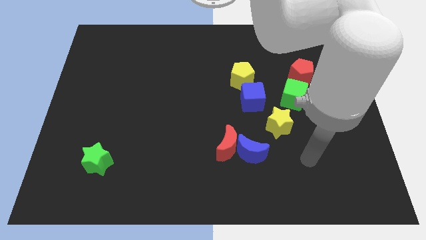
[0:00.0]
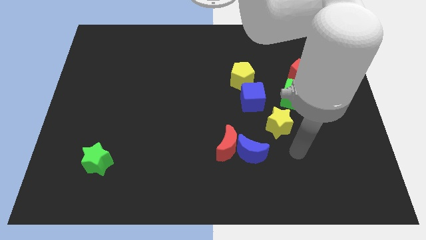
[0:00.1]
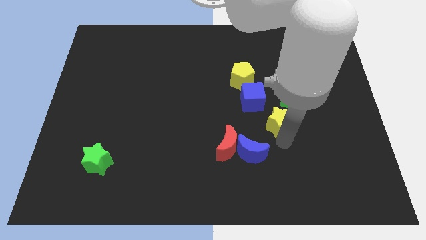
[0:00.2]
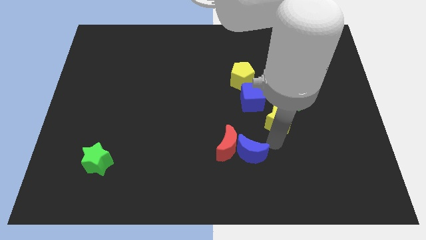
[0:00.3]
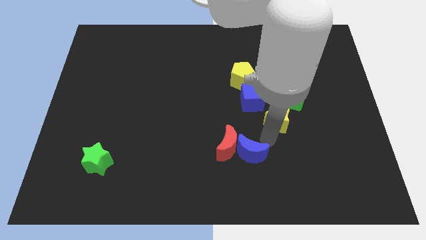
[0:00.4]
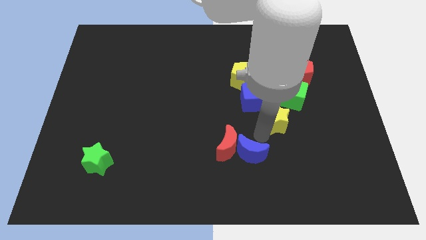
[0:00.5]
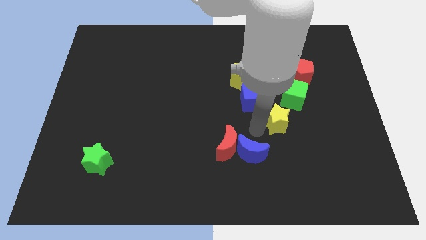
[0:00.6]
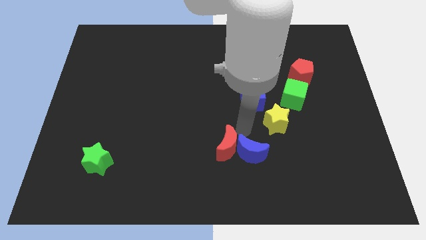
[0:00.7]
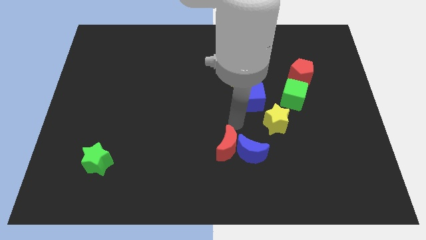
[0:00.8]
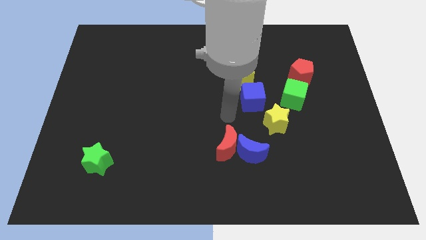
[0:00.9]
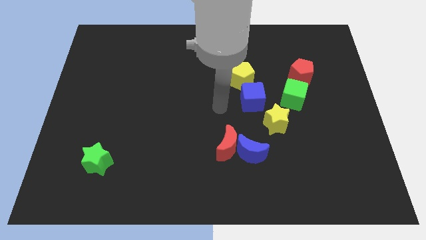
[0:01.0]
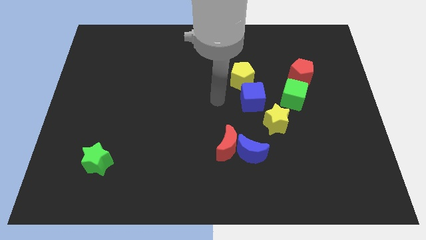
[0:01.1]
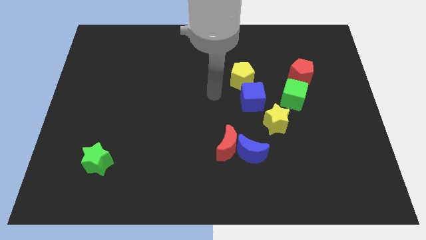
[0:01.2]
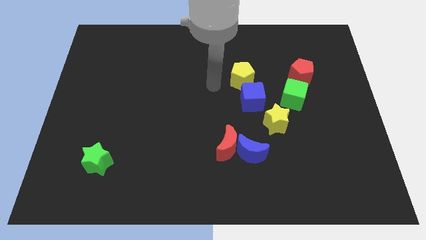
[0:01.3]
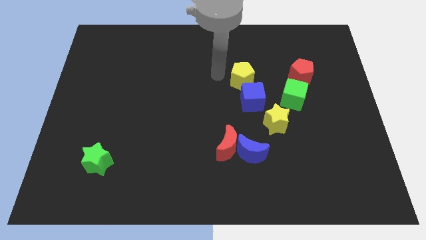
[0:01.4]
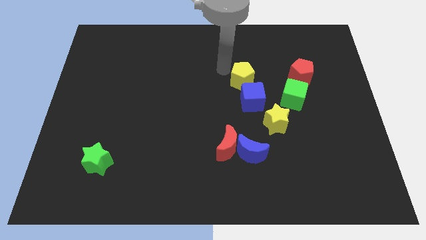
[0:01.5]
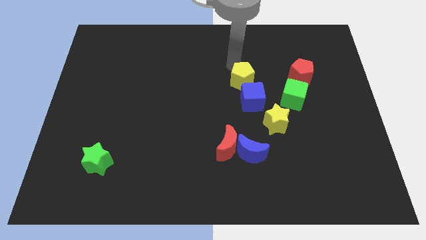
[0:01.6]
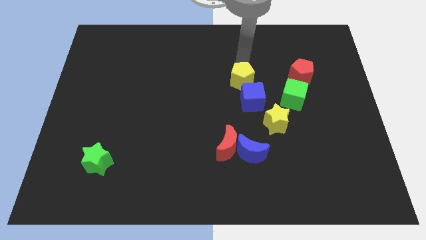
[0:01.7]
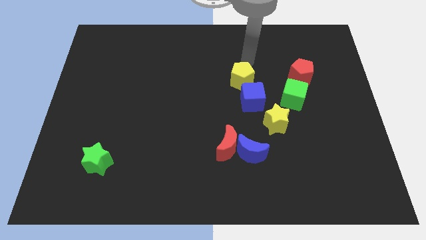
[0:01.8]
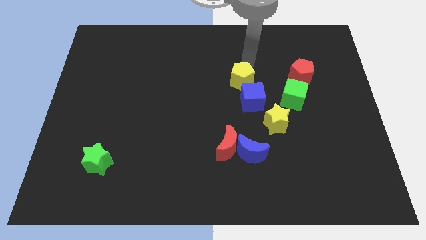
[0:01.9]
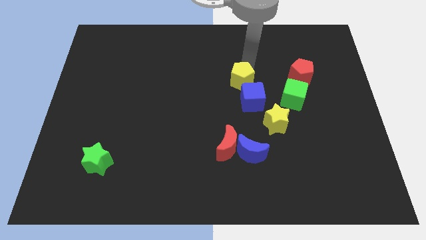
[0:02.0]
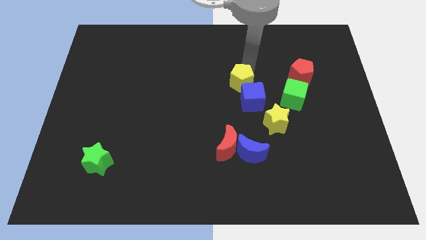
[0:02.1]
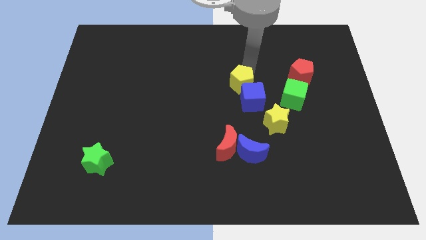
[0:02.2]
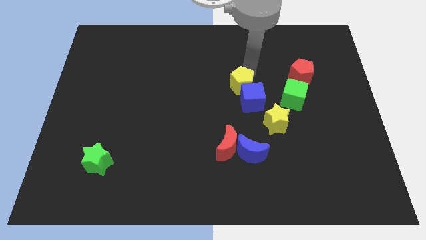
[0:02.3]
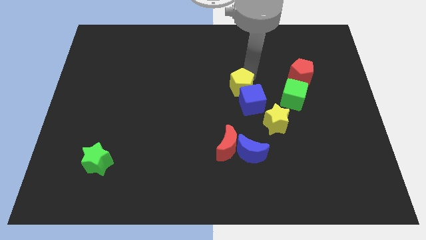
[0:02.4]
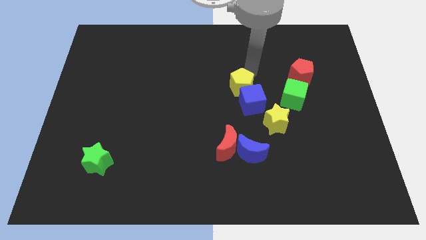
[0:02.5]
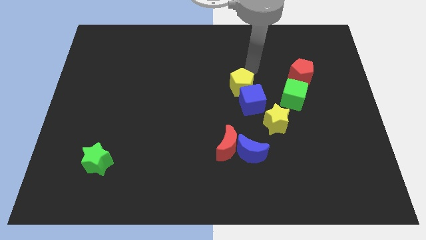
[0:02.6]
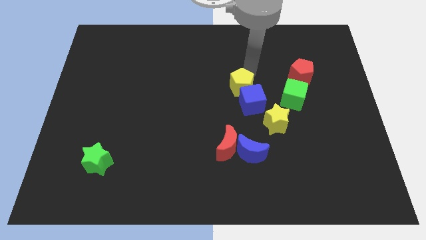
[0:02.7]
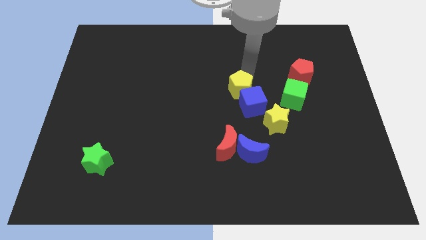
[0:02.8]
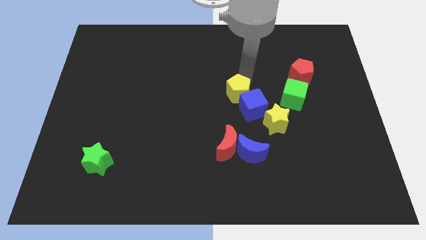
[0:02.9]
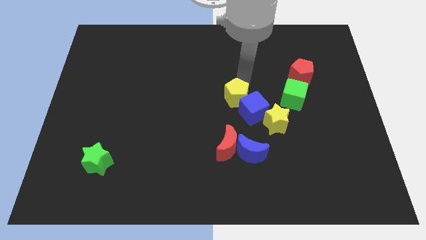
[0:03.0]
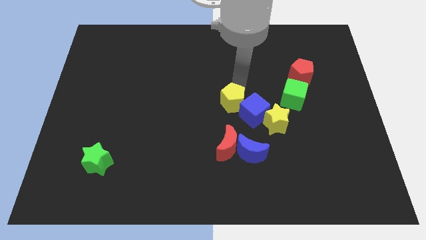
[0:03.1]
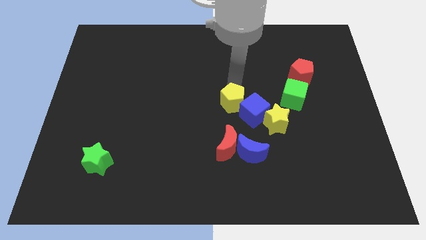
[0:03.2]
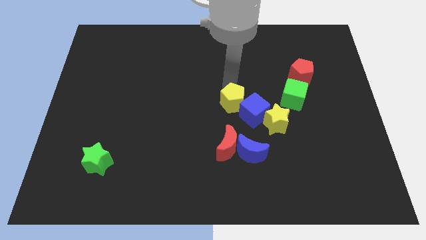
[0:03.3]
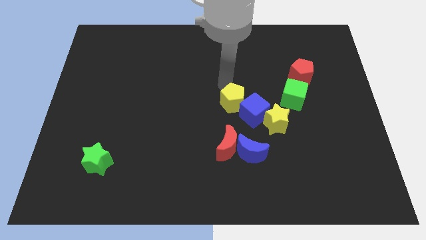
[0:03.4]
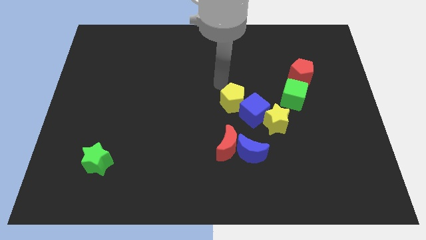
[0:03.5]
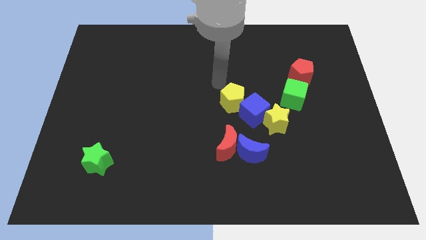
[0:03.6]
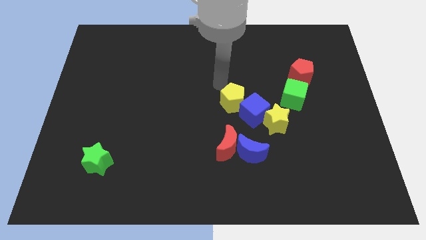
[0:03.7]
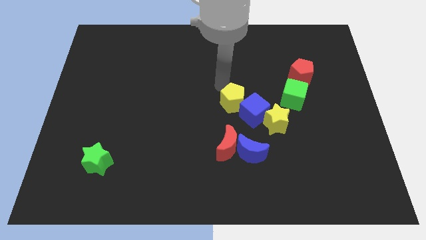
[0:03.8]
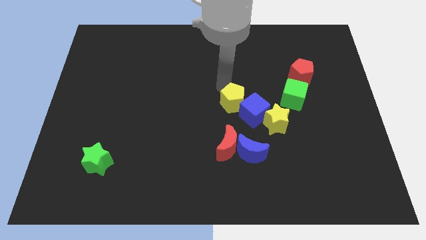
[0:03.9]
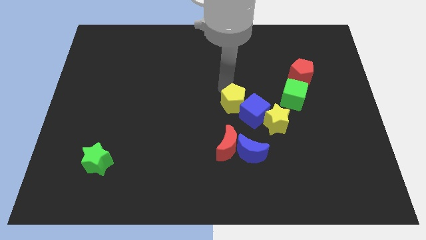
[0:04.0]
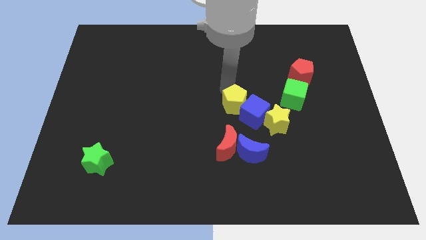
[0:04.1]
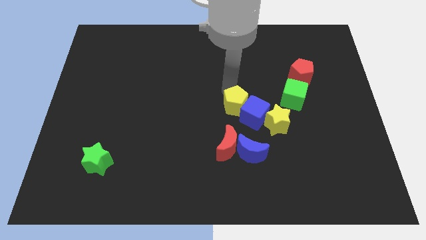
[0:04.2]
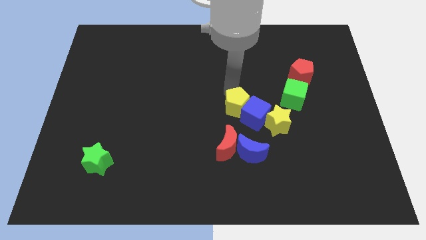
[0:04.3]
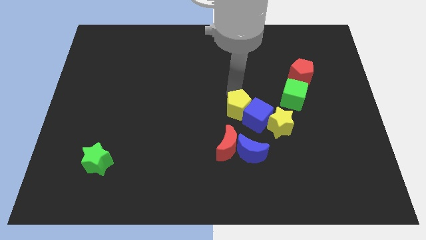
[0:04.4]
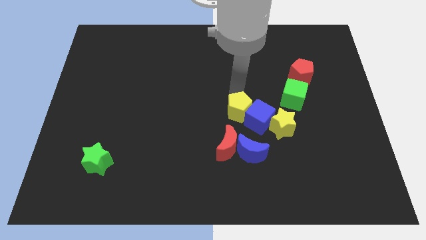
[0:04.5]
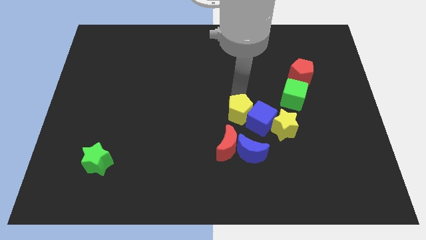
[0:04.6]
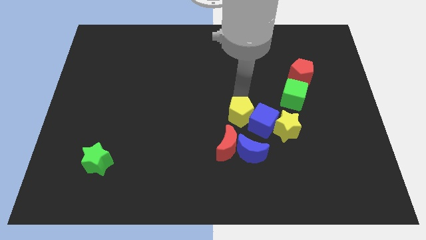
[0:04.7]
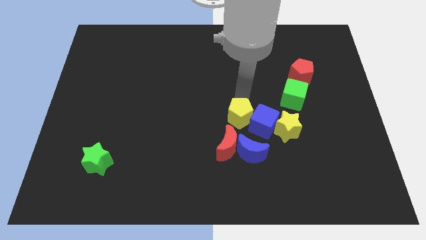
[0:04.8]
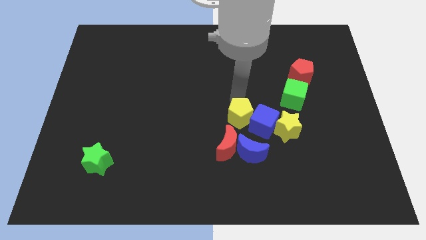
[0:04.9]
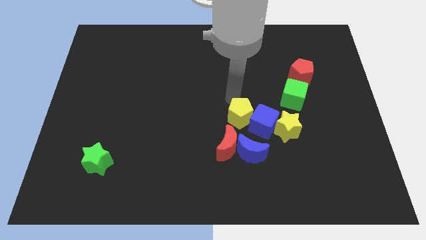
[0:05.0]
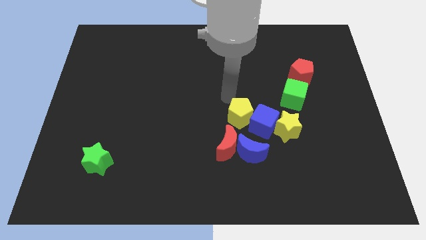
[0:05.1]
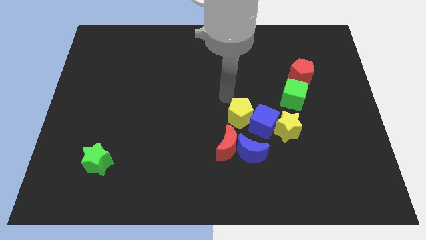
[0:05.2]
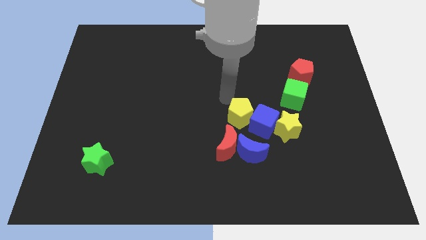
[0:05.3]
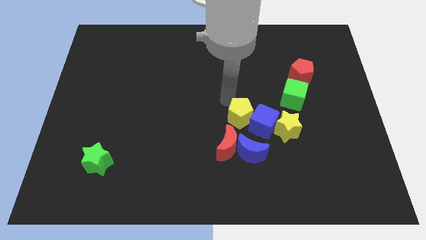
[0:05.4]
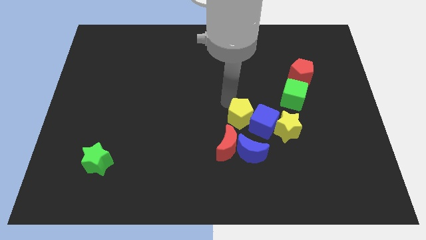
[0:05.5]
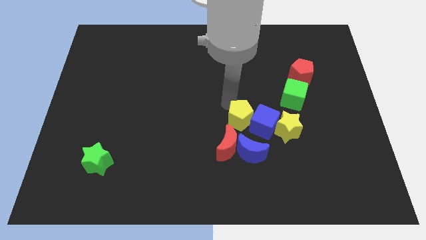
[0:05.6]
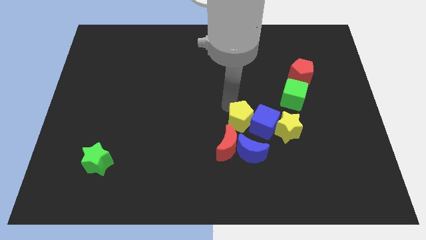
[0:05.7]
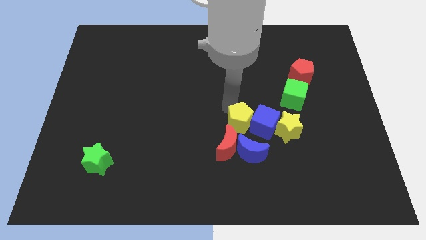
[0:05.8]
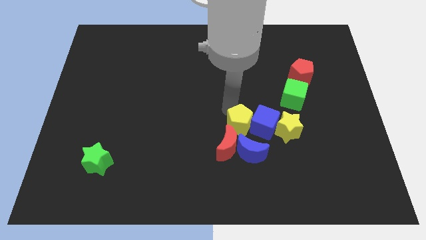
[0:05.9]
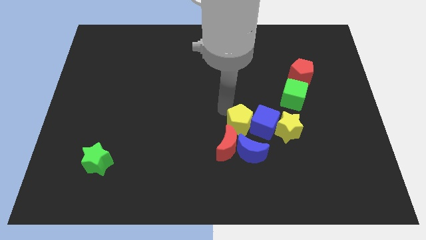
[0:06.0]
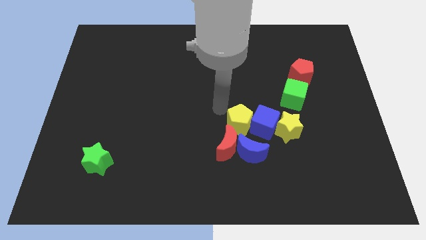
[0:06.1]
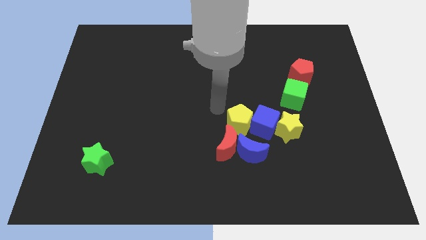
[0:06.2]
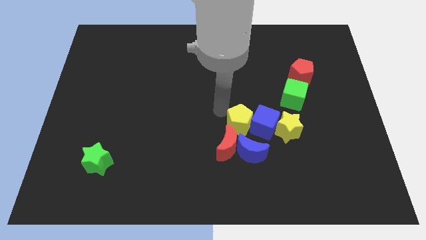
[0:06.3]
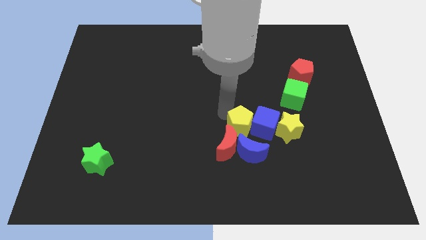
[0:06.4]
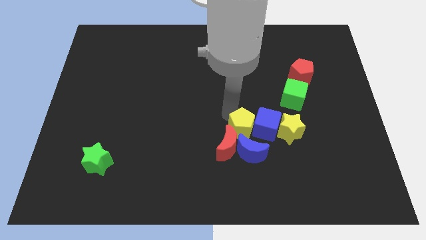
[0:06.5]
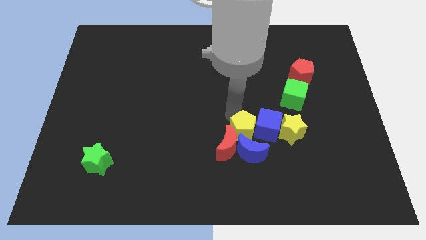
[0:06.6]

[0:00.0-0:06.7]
move the yellow pentagon close to the blue moon

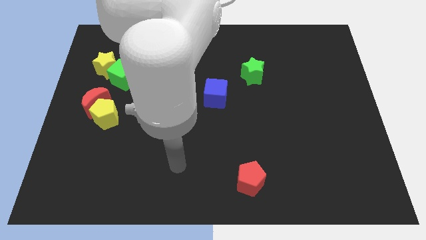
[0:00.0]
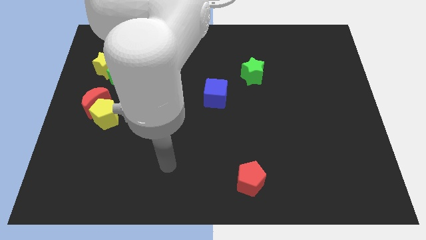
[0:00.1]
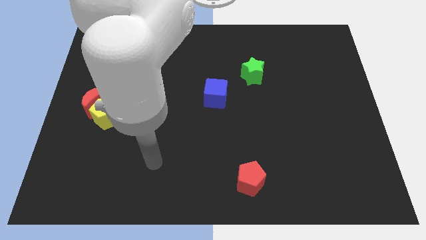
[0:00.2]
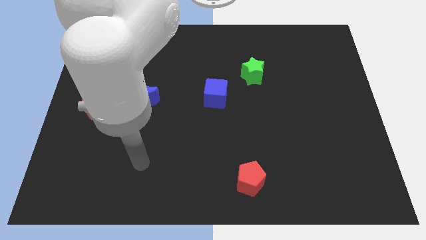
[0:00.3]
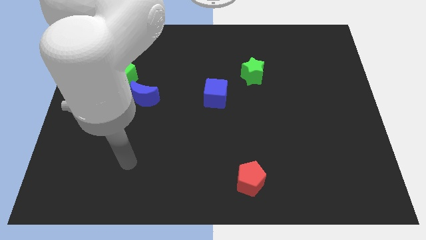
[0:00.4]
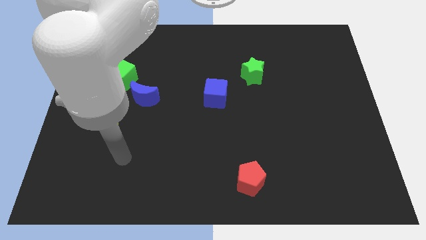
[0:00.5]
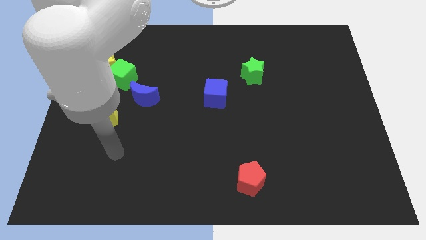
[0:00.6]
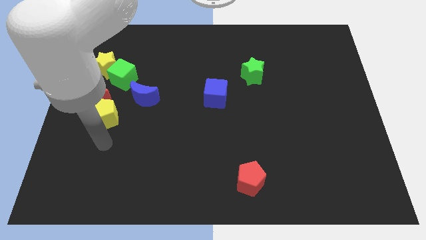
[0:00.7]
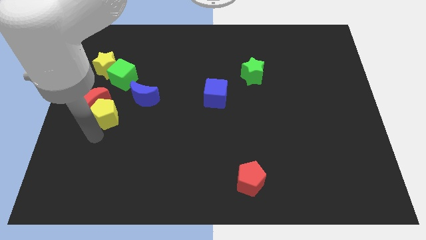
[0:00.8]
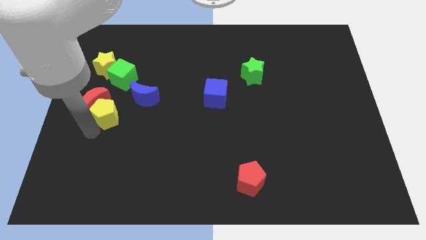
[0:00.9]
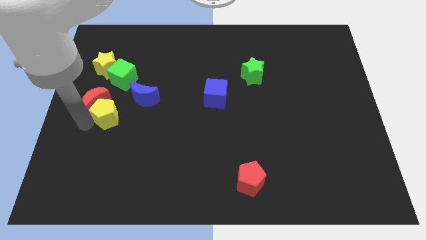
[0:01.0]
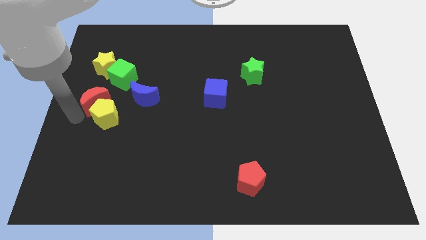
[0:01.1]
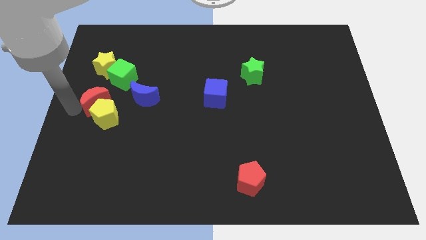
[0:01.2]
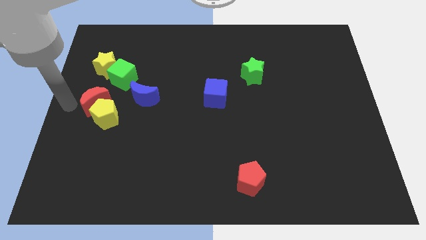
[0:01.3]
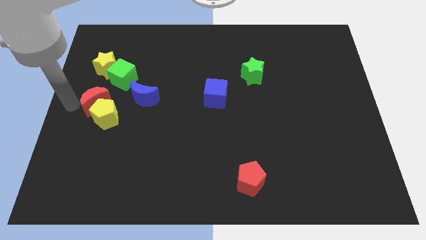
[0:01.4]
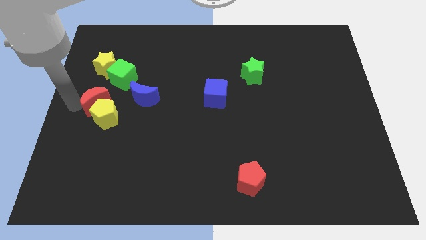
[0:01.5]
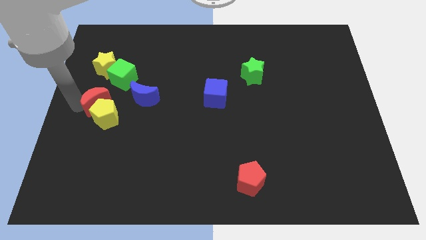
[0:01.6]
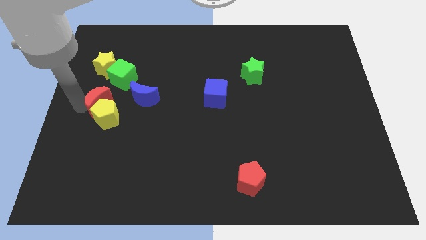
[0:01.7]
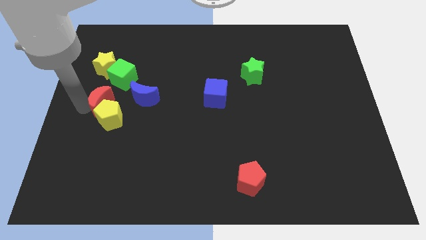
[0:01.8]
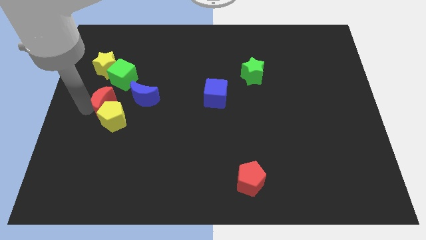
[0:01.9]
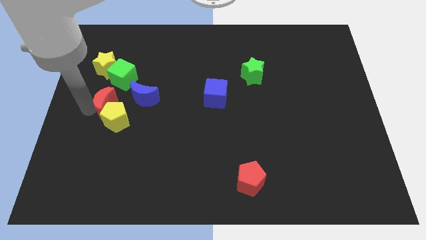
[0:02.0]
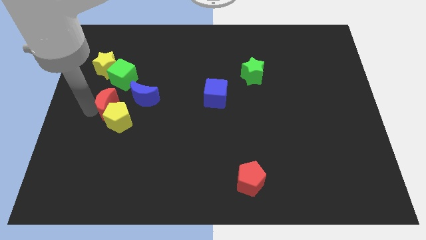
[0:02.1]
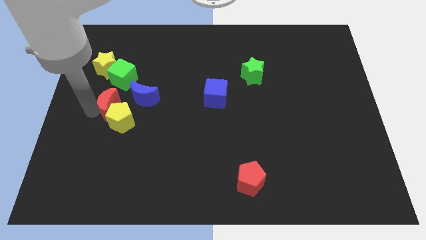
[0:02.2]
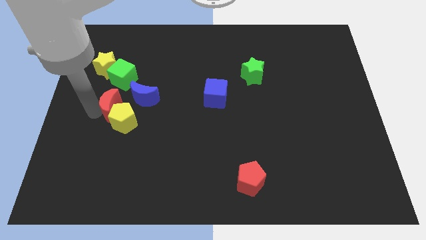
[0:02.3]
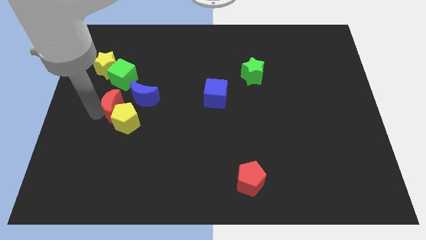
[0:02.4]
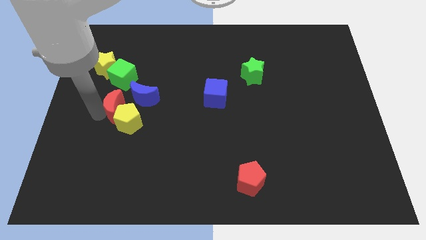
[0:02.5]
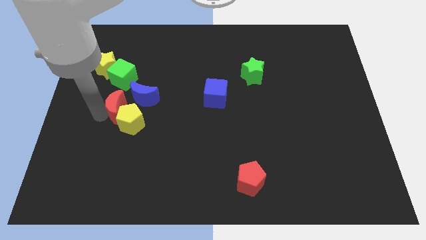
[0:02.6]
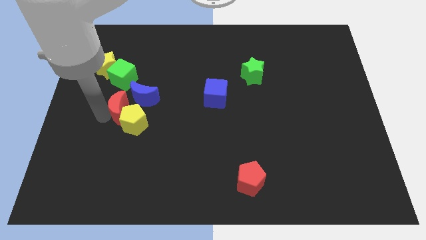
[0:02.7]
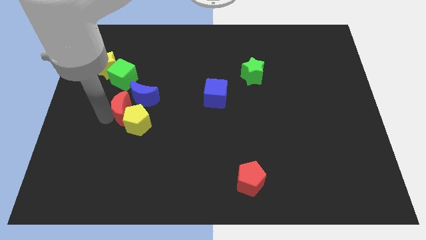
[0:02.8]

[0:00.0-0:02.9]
slide the red moon close to the blue moon
